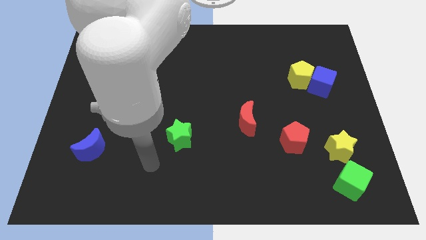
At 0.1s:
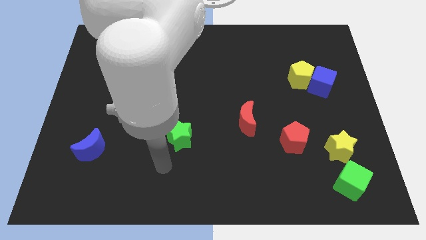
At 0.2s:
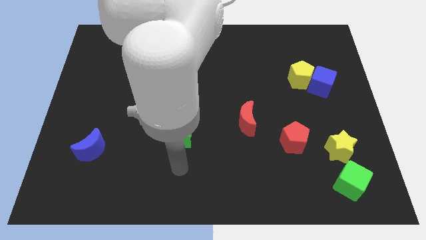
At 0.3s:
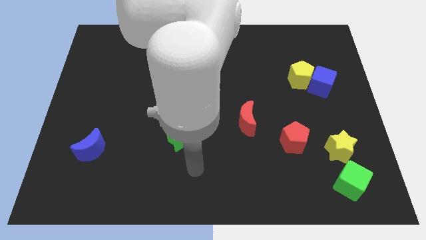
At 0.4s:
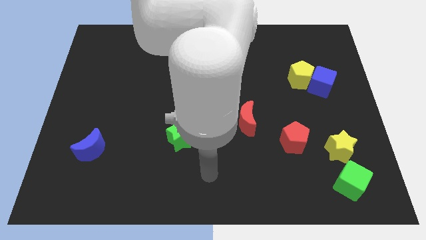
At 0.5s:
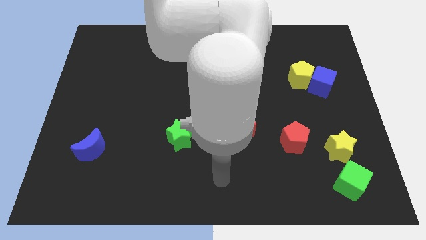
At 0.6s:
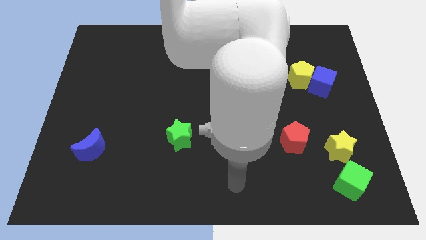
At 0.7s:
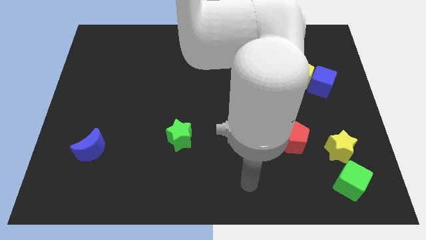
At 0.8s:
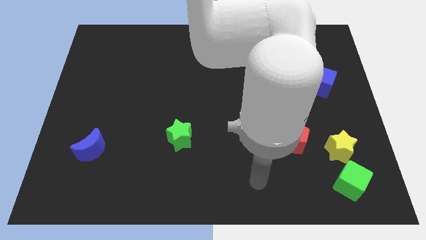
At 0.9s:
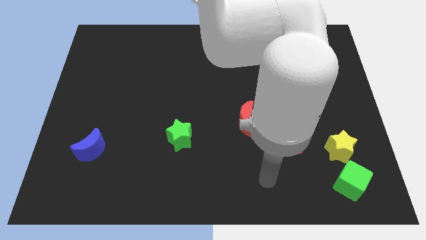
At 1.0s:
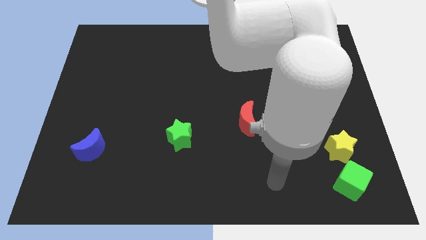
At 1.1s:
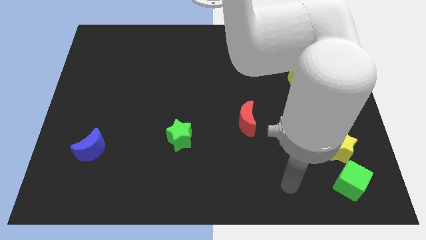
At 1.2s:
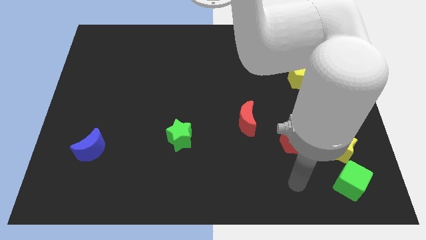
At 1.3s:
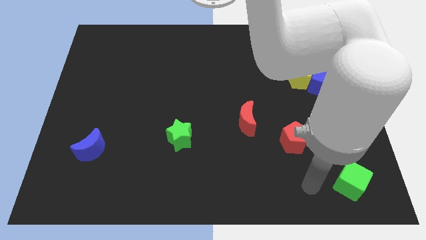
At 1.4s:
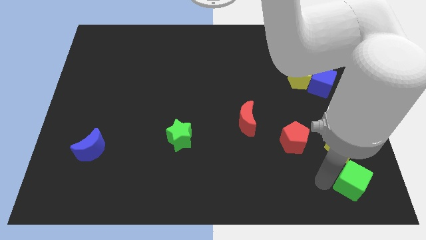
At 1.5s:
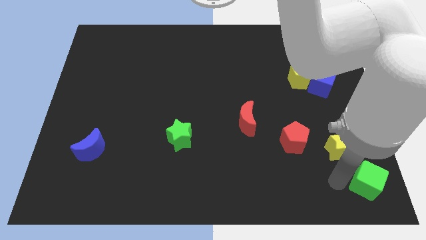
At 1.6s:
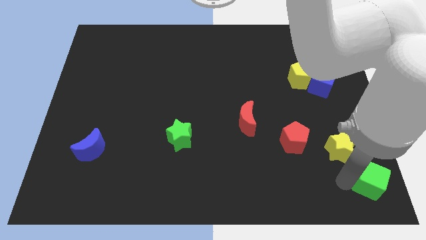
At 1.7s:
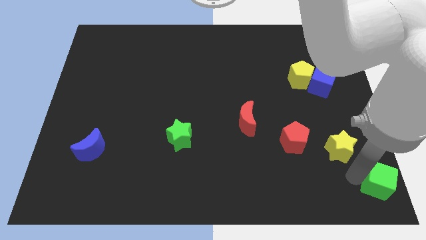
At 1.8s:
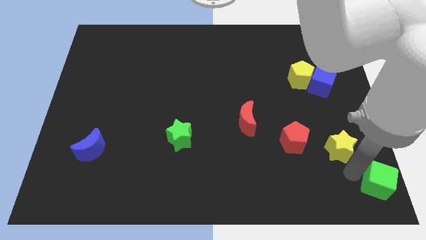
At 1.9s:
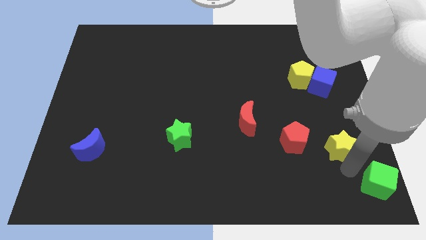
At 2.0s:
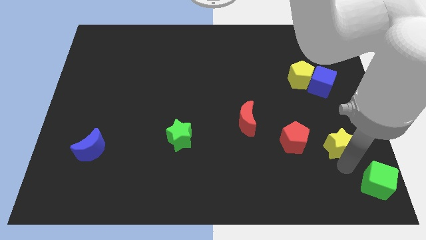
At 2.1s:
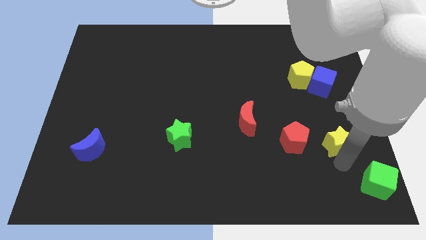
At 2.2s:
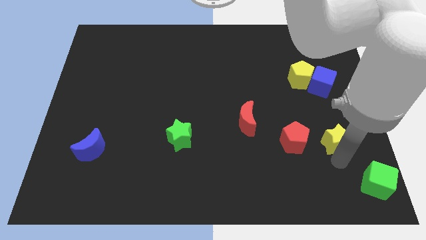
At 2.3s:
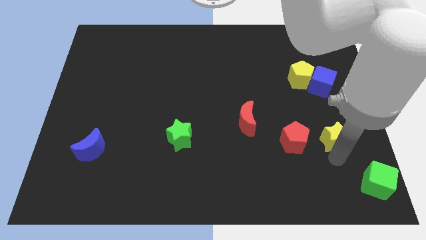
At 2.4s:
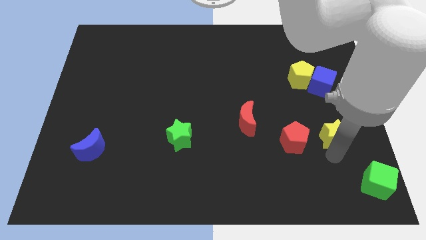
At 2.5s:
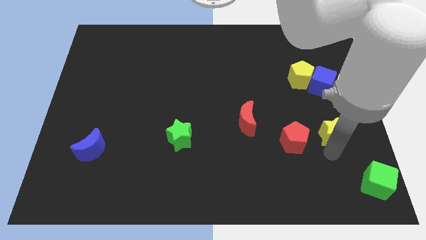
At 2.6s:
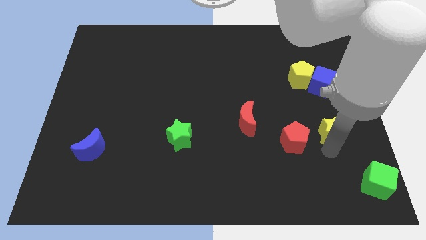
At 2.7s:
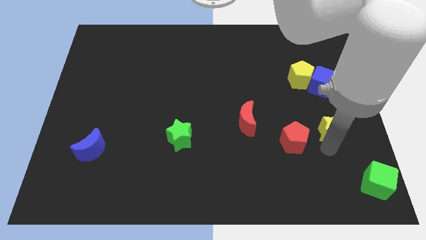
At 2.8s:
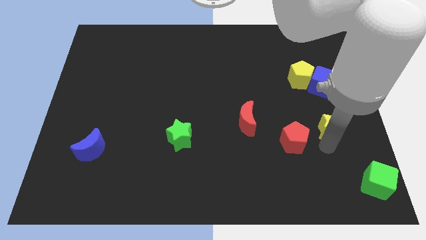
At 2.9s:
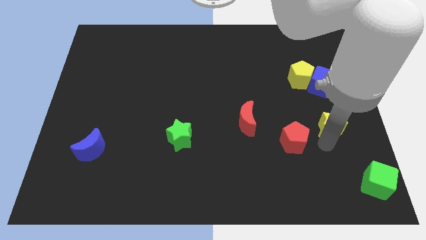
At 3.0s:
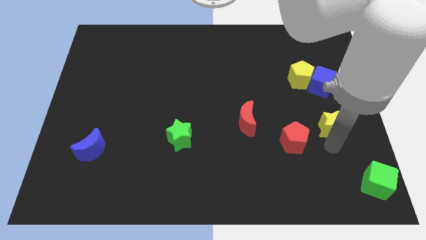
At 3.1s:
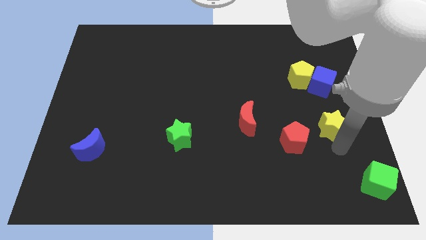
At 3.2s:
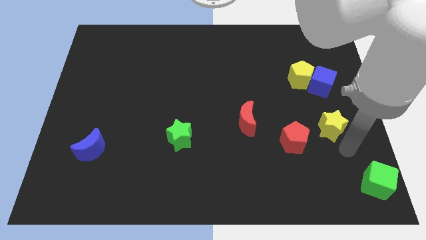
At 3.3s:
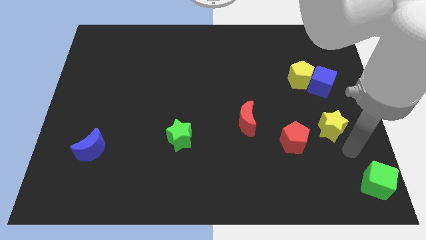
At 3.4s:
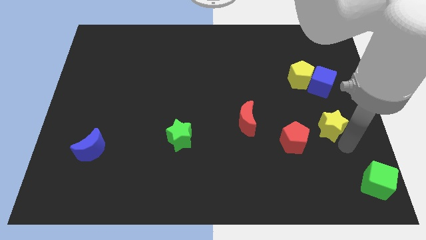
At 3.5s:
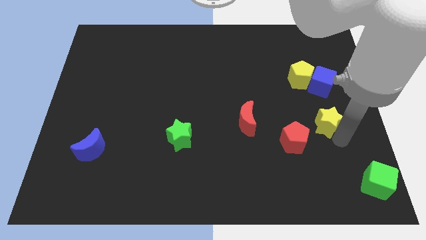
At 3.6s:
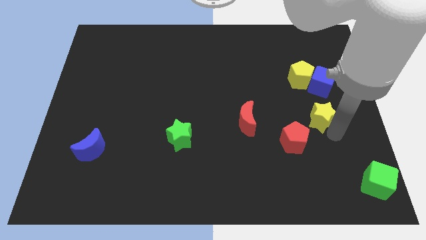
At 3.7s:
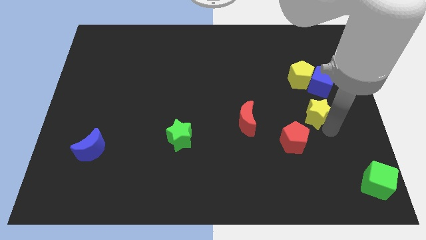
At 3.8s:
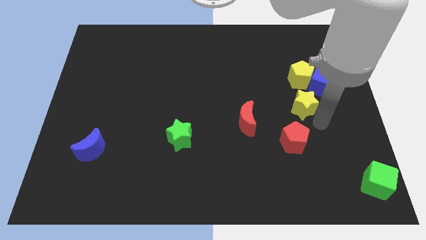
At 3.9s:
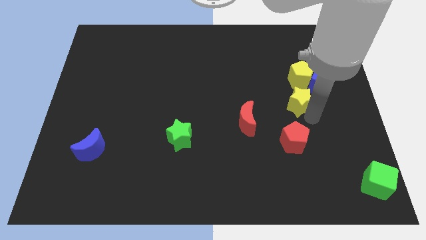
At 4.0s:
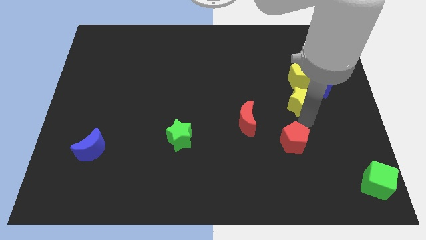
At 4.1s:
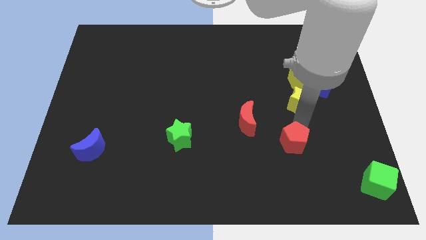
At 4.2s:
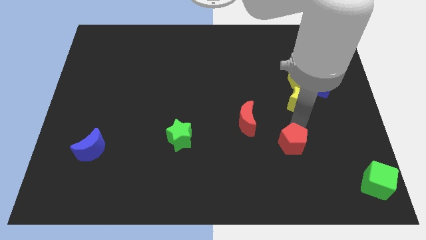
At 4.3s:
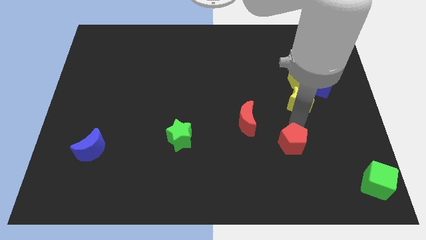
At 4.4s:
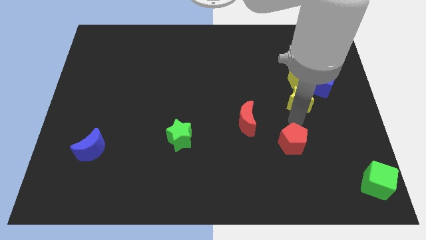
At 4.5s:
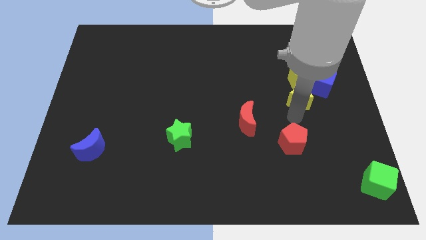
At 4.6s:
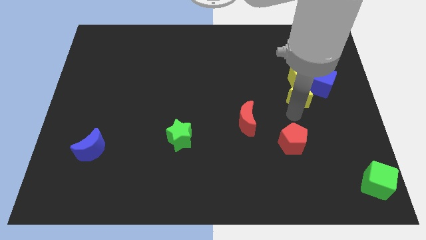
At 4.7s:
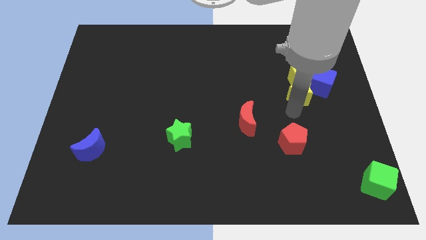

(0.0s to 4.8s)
push the yellow star towards the yellow pentagon

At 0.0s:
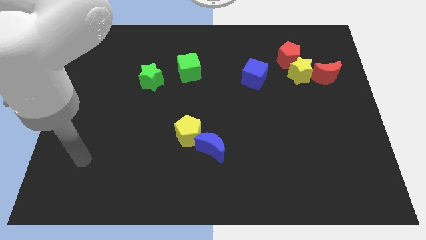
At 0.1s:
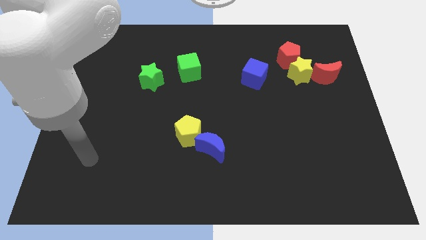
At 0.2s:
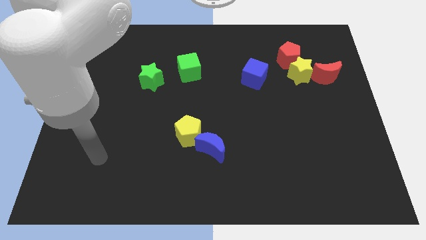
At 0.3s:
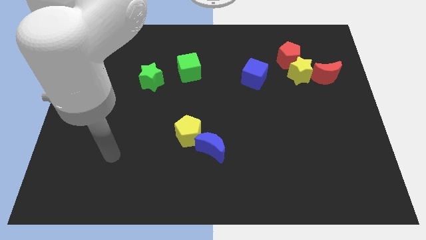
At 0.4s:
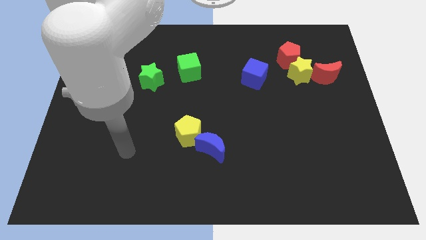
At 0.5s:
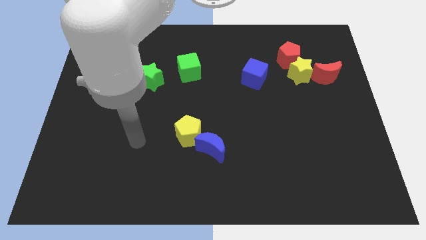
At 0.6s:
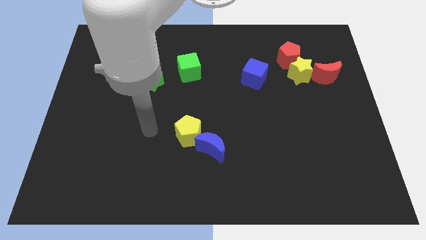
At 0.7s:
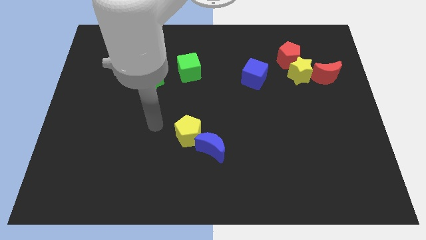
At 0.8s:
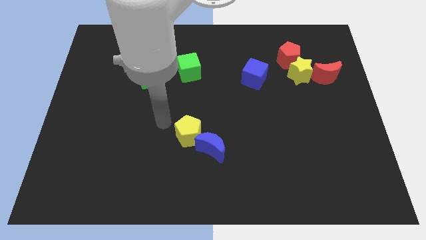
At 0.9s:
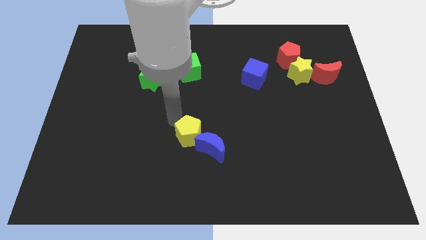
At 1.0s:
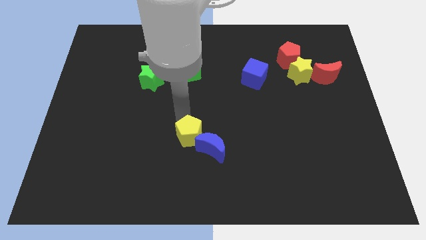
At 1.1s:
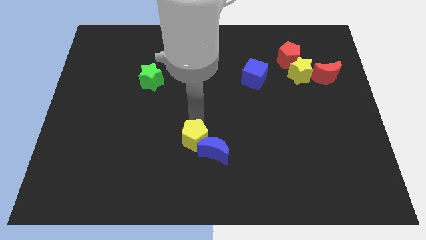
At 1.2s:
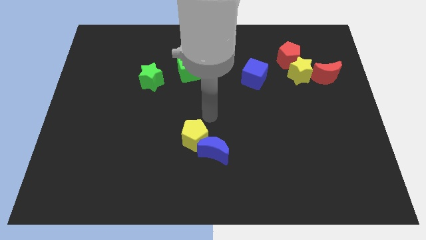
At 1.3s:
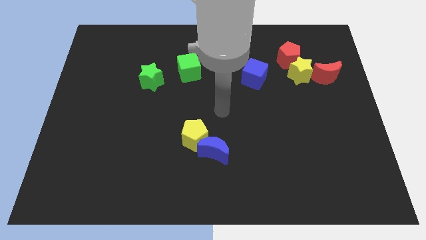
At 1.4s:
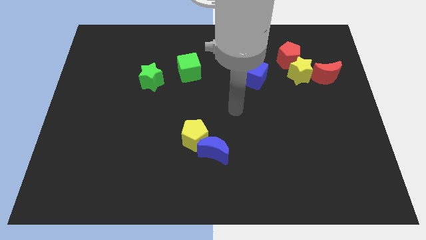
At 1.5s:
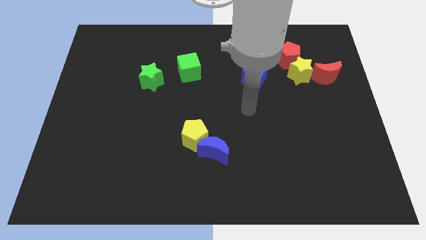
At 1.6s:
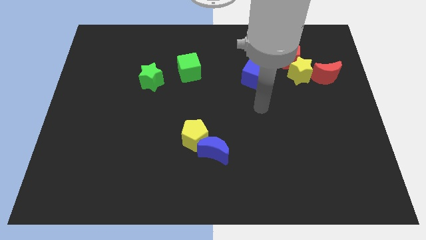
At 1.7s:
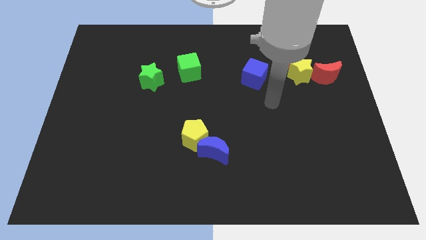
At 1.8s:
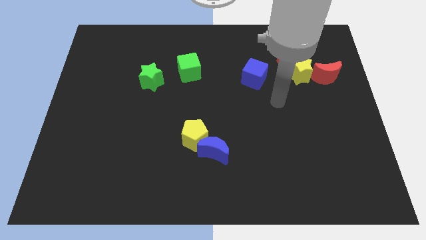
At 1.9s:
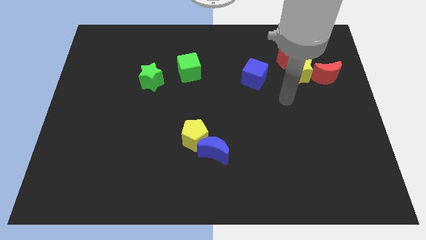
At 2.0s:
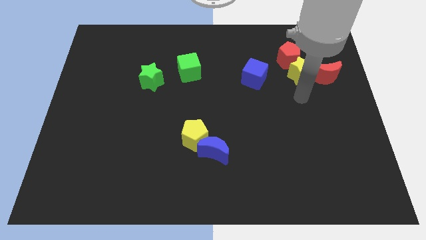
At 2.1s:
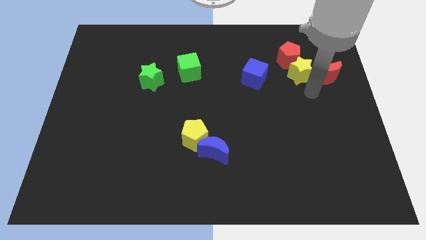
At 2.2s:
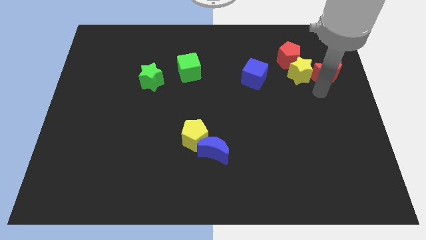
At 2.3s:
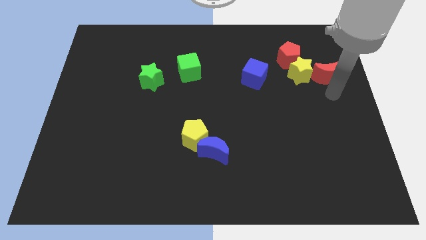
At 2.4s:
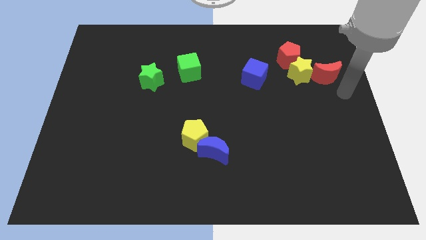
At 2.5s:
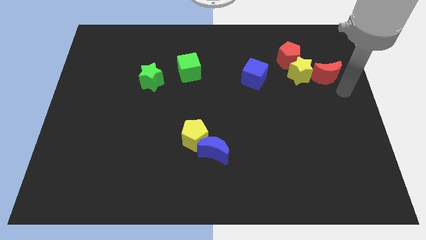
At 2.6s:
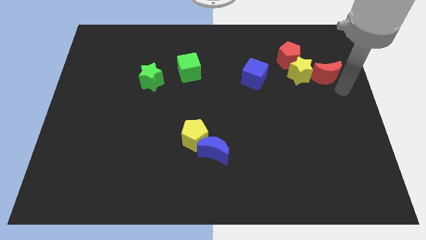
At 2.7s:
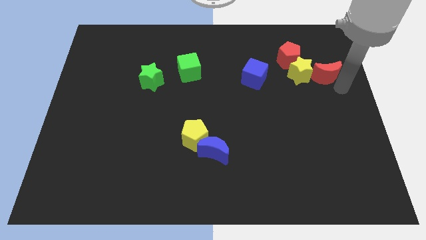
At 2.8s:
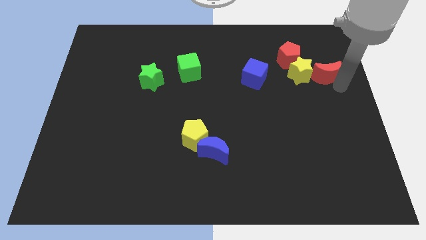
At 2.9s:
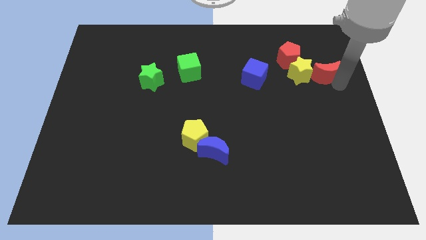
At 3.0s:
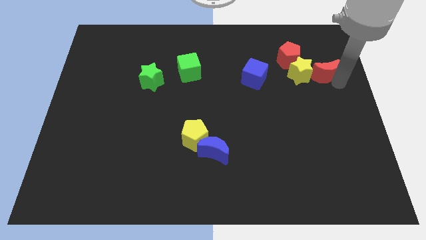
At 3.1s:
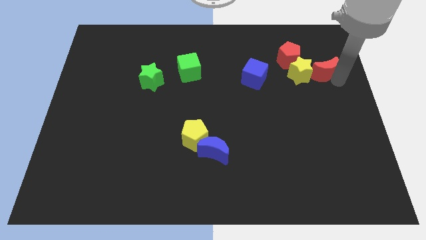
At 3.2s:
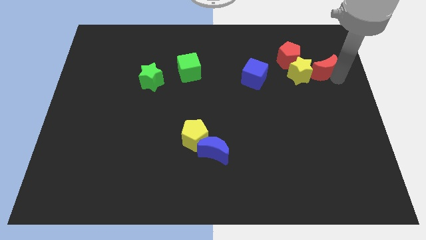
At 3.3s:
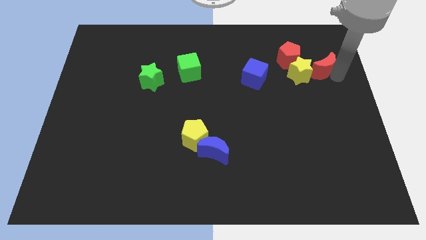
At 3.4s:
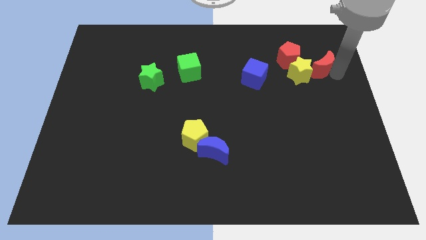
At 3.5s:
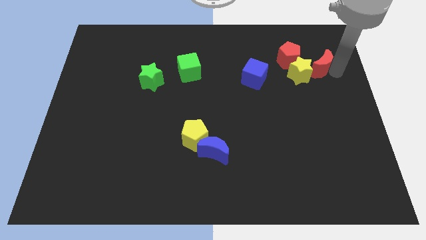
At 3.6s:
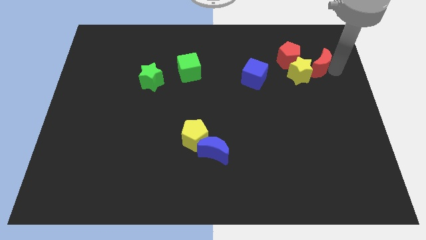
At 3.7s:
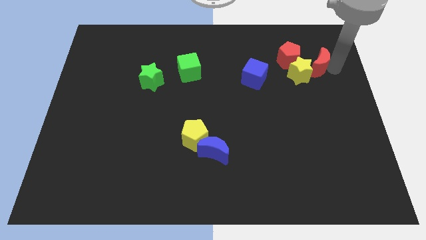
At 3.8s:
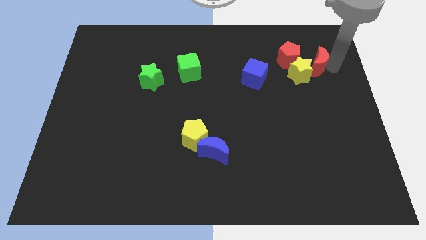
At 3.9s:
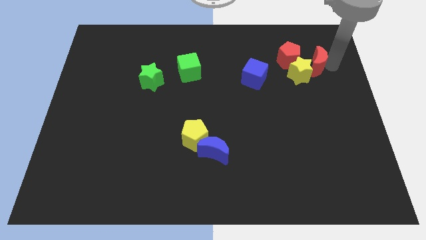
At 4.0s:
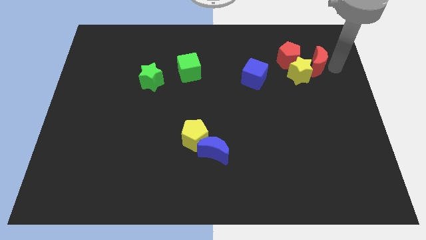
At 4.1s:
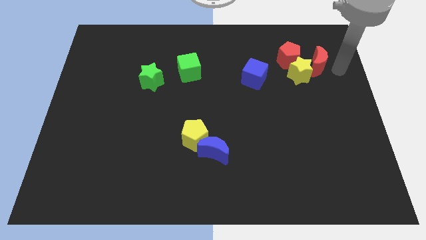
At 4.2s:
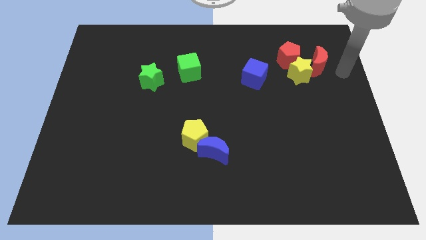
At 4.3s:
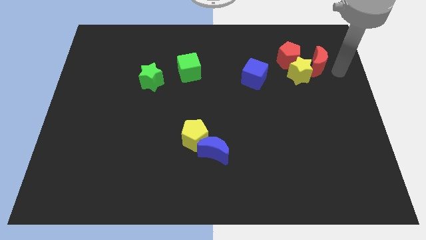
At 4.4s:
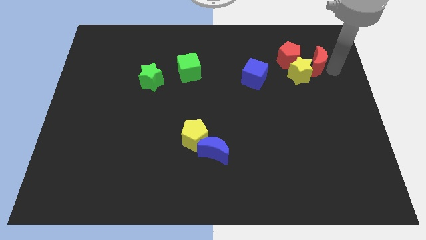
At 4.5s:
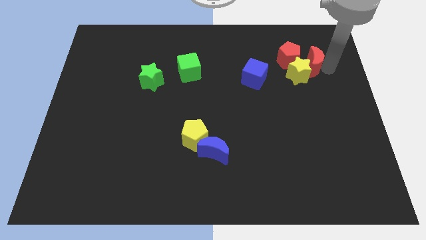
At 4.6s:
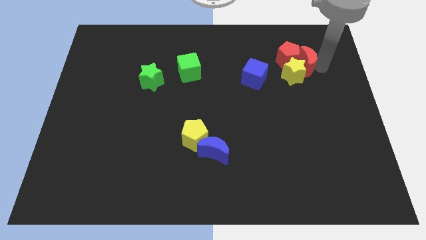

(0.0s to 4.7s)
put the red moon towards the red pentagon
